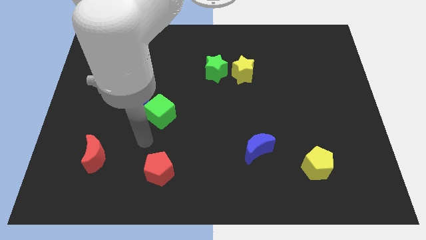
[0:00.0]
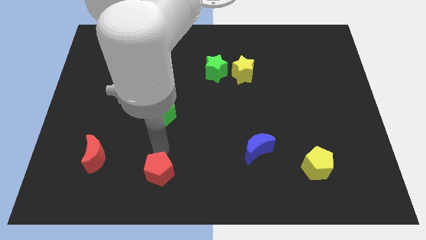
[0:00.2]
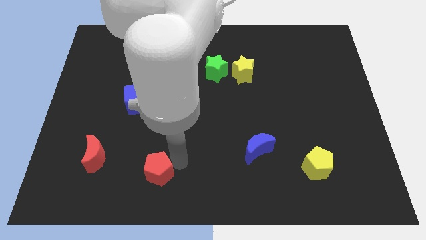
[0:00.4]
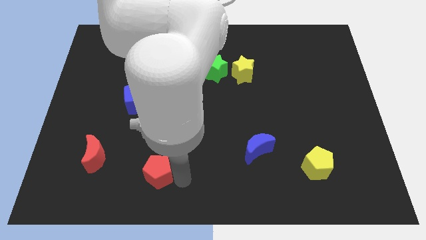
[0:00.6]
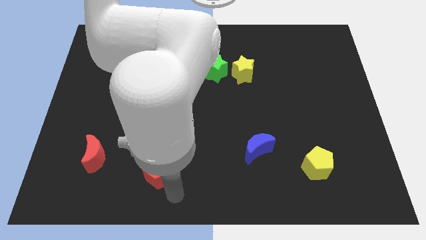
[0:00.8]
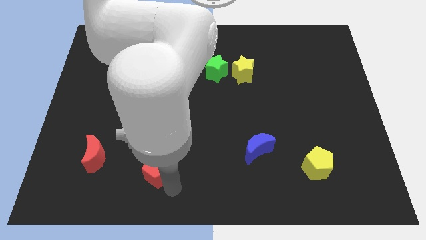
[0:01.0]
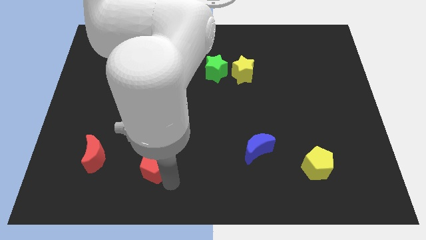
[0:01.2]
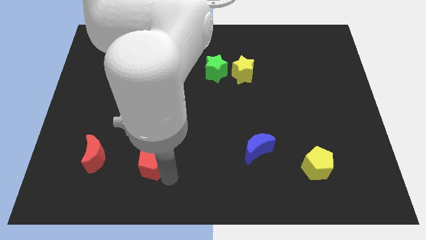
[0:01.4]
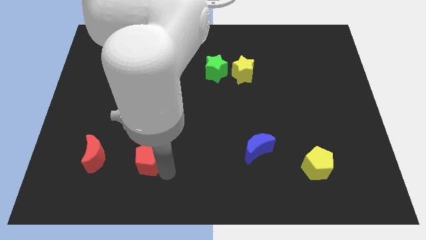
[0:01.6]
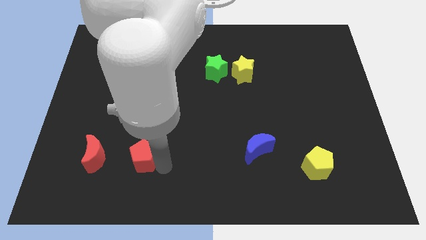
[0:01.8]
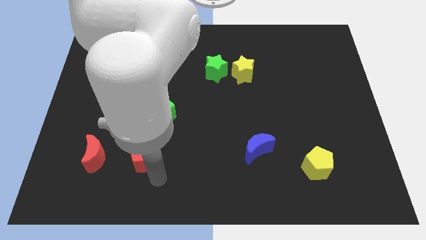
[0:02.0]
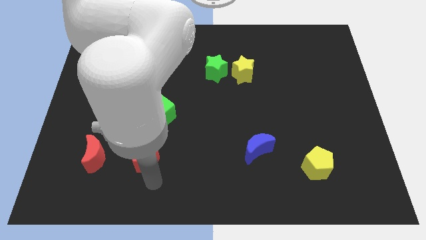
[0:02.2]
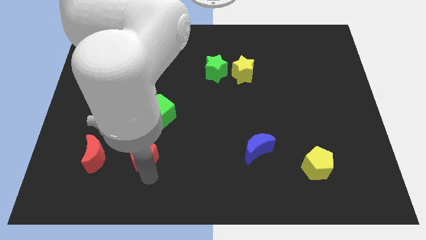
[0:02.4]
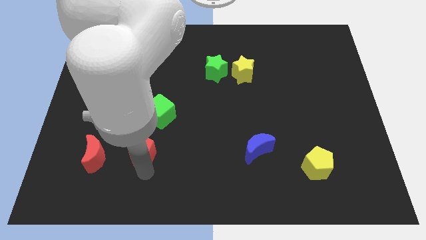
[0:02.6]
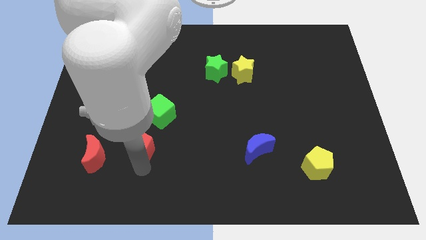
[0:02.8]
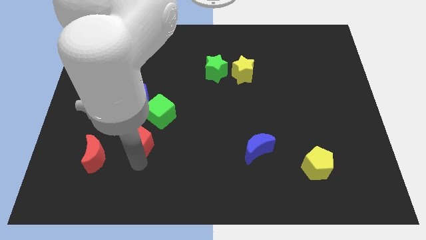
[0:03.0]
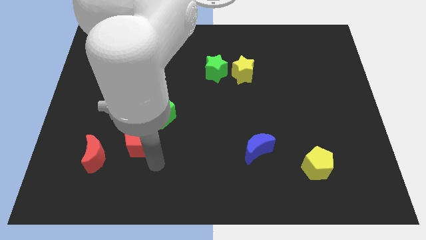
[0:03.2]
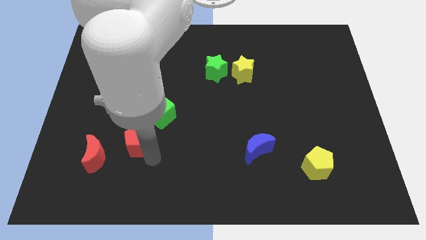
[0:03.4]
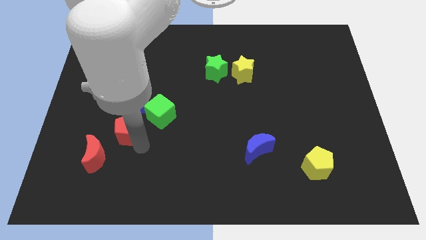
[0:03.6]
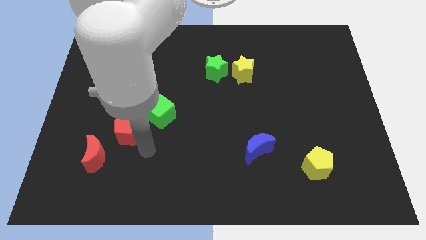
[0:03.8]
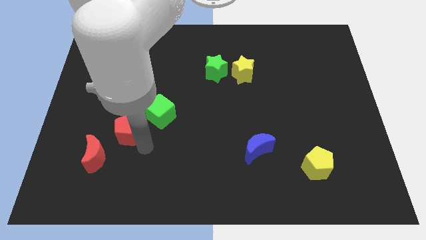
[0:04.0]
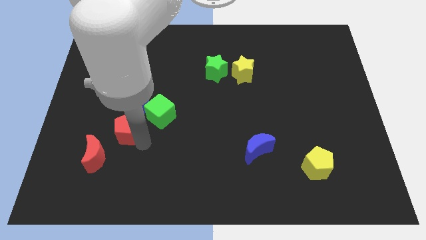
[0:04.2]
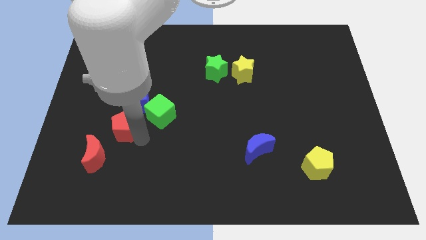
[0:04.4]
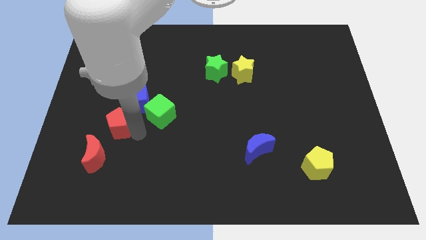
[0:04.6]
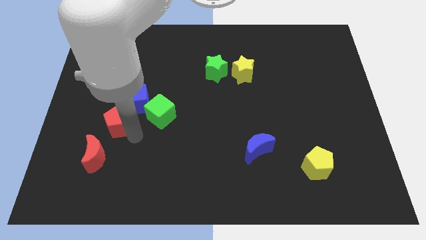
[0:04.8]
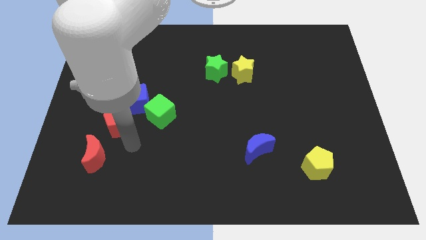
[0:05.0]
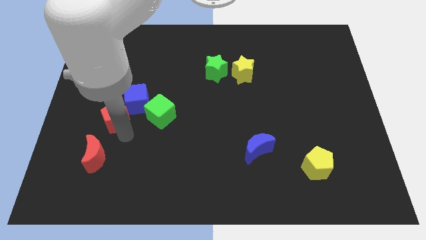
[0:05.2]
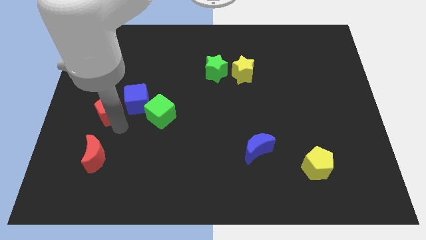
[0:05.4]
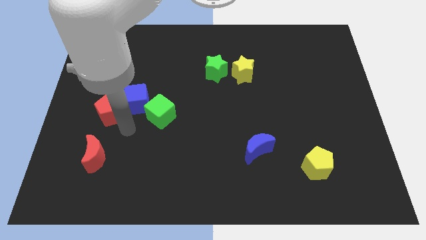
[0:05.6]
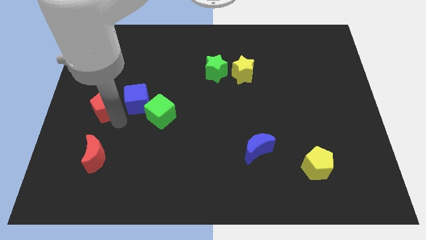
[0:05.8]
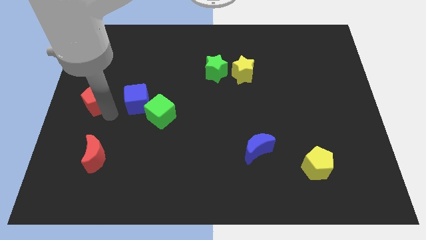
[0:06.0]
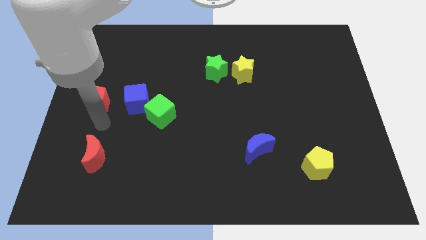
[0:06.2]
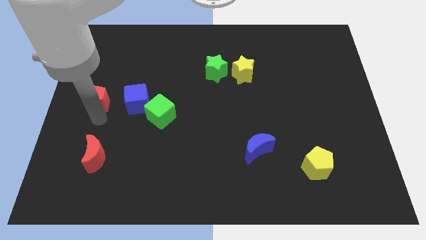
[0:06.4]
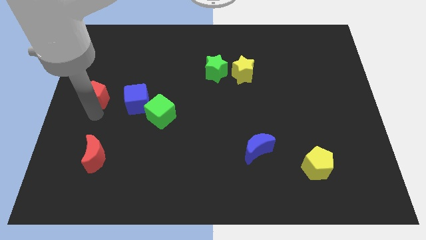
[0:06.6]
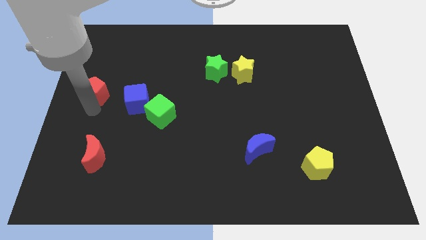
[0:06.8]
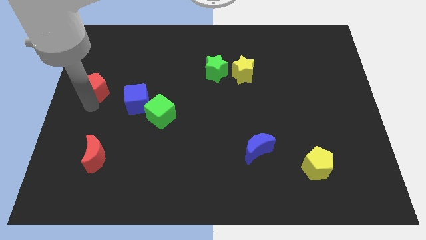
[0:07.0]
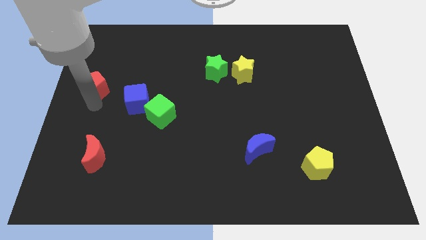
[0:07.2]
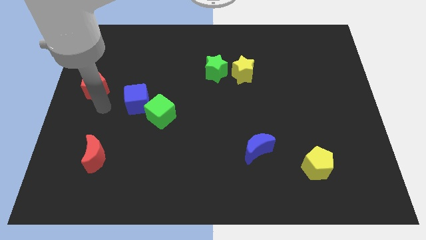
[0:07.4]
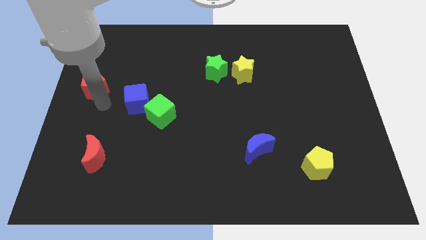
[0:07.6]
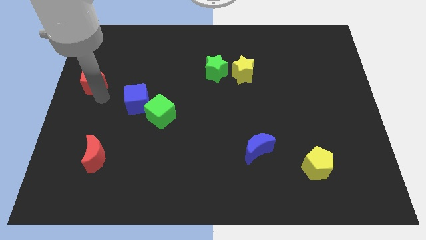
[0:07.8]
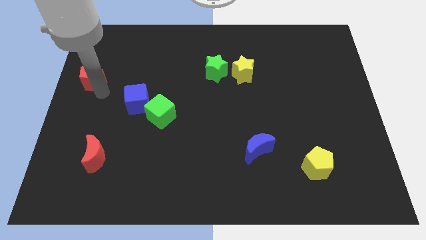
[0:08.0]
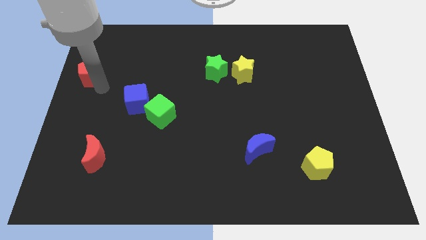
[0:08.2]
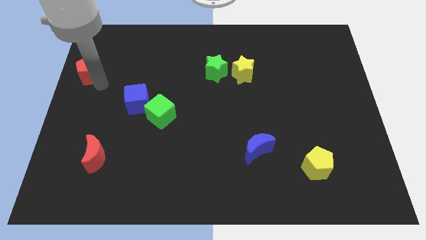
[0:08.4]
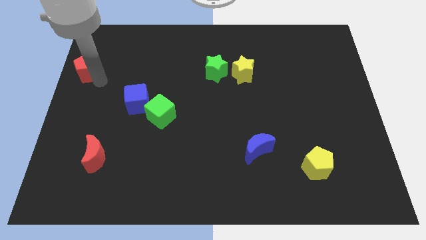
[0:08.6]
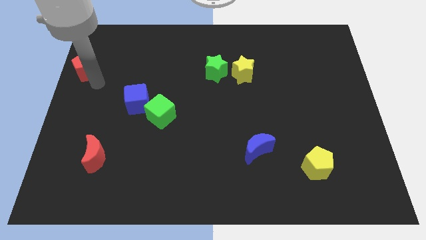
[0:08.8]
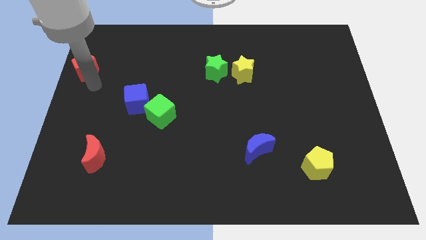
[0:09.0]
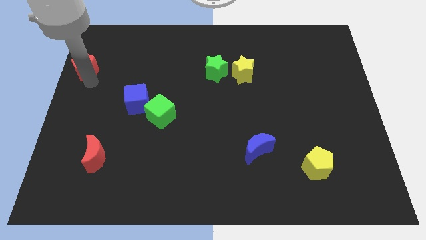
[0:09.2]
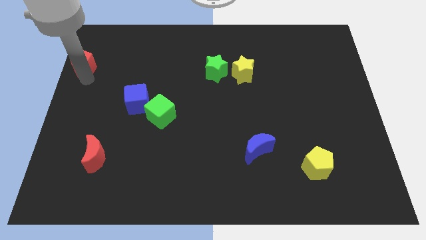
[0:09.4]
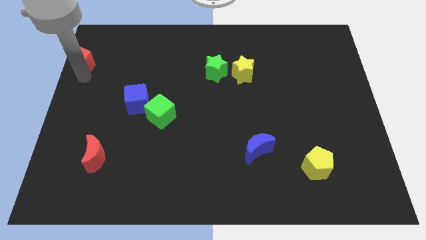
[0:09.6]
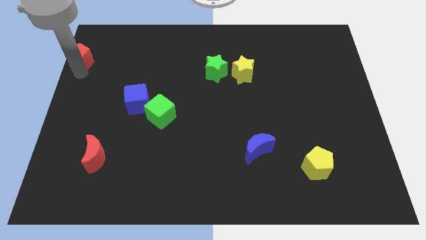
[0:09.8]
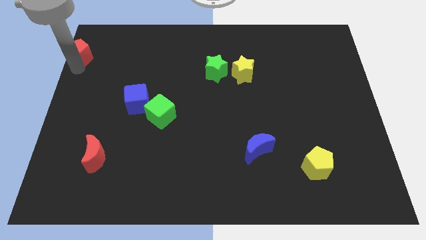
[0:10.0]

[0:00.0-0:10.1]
push the red pentagon to the top left of the board
